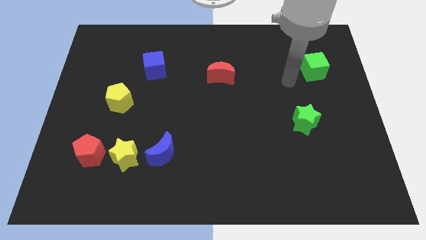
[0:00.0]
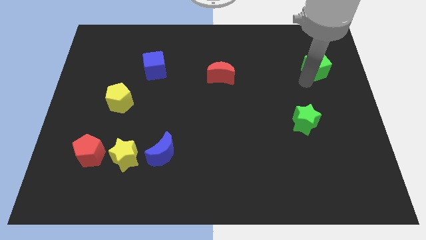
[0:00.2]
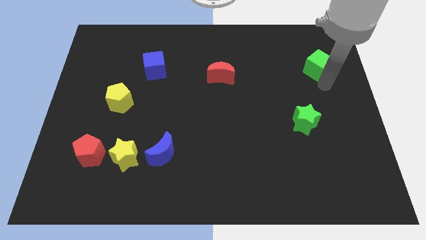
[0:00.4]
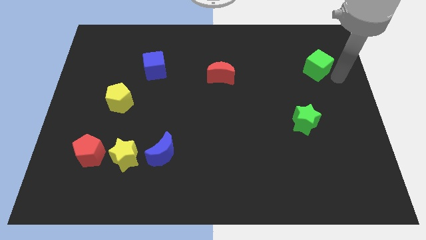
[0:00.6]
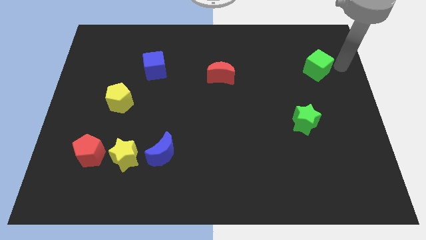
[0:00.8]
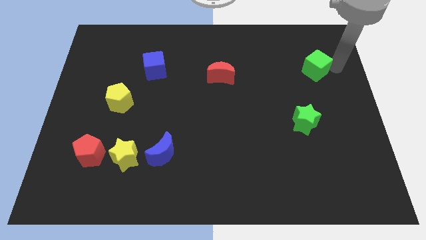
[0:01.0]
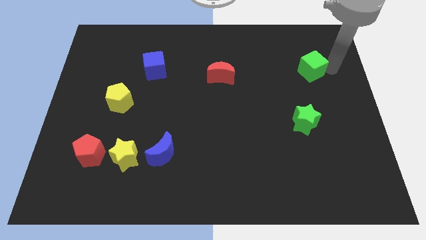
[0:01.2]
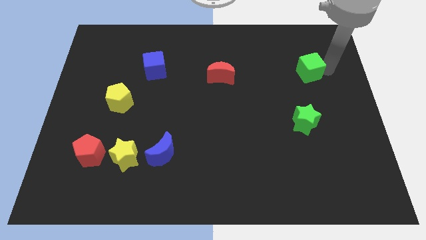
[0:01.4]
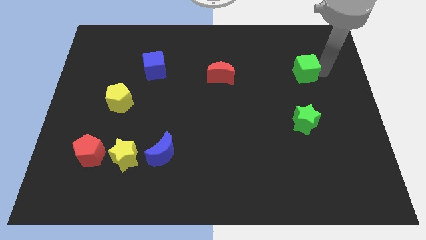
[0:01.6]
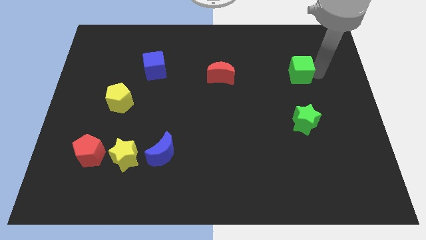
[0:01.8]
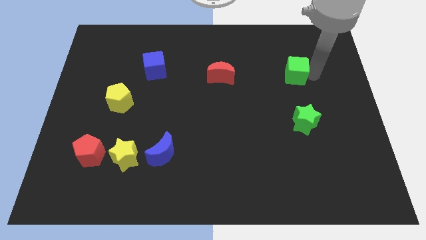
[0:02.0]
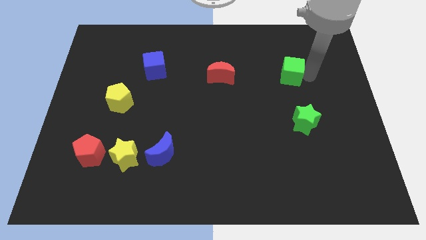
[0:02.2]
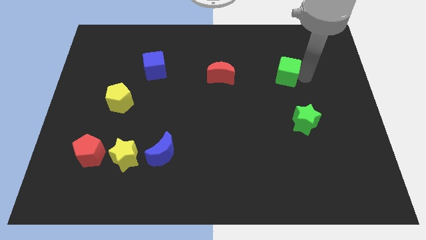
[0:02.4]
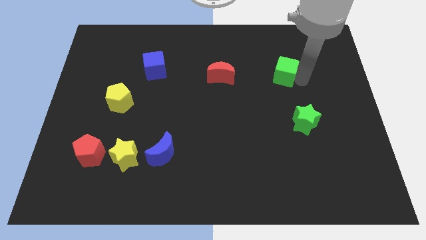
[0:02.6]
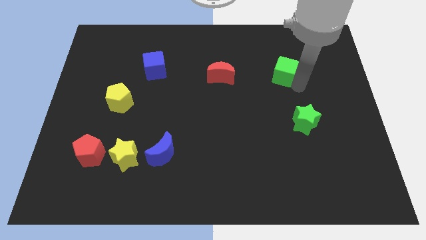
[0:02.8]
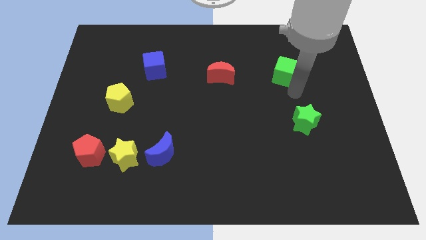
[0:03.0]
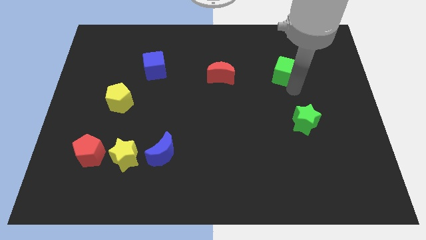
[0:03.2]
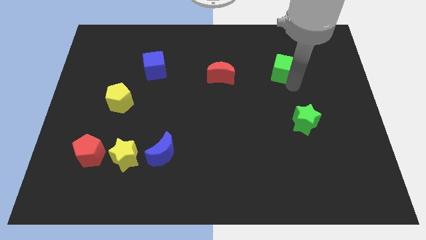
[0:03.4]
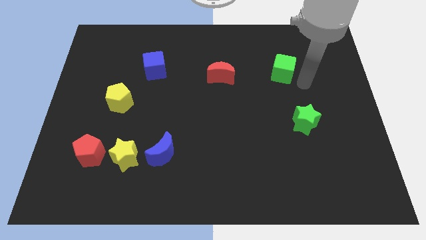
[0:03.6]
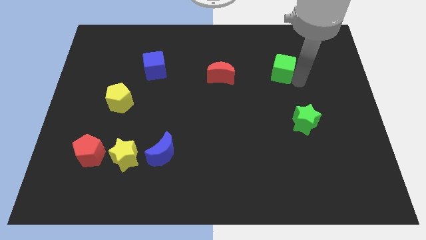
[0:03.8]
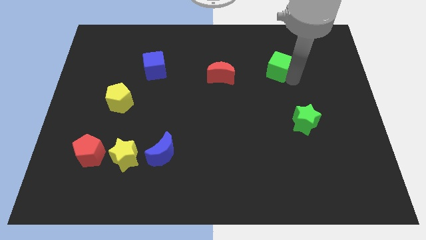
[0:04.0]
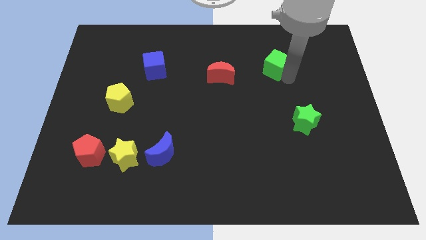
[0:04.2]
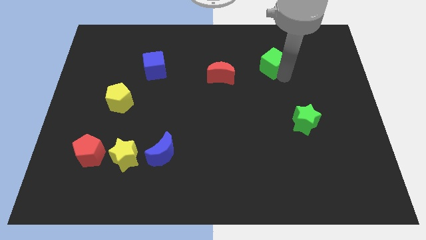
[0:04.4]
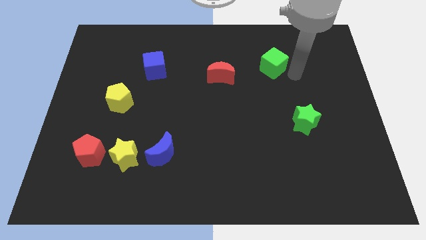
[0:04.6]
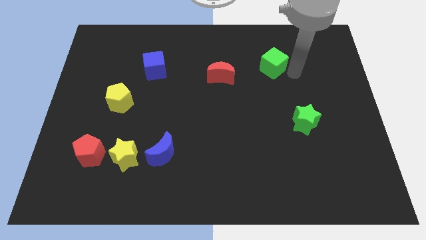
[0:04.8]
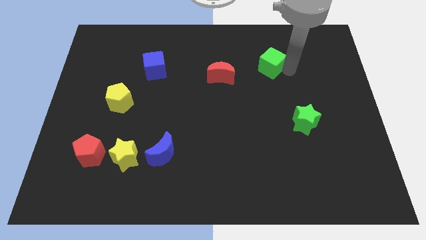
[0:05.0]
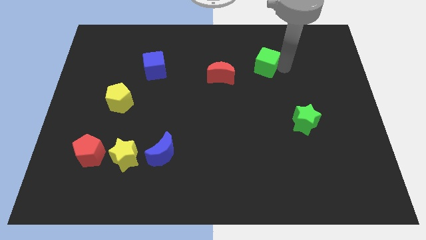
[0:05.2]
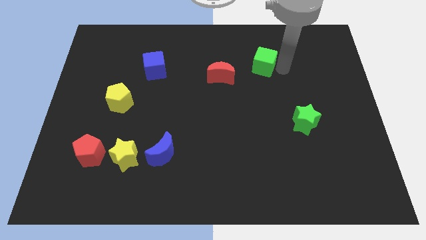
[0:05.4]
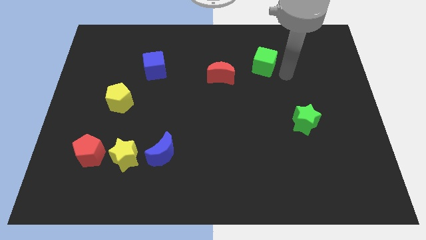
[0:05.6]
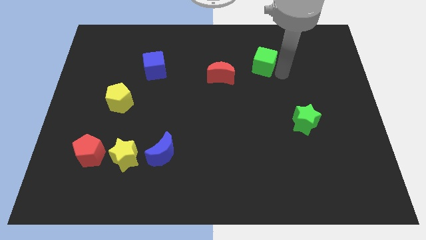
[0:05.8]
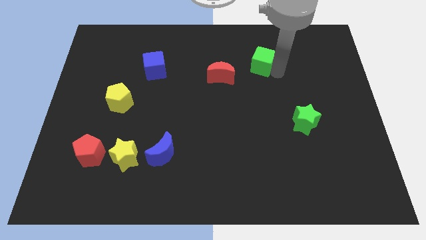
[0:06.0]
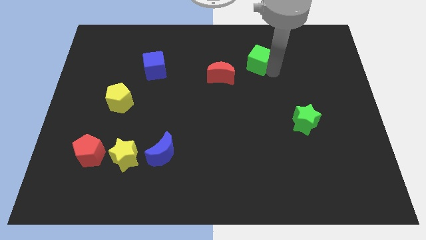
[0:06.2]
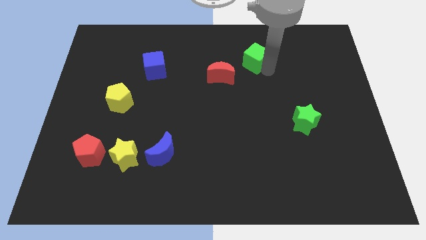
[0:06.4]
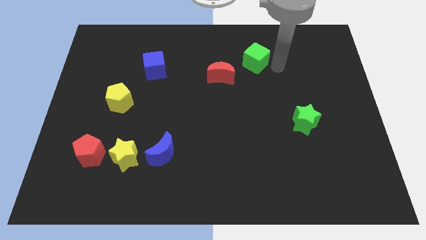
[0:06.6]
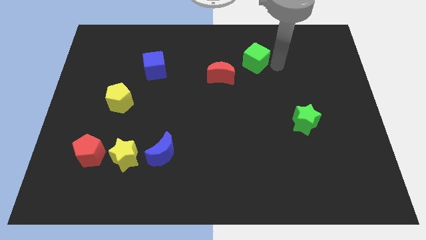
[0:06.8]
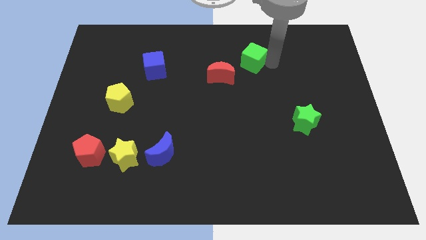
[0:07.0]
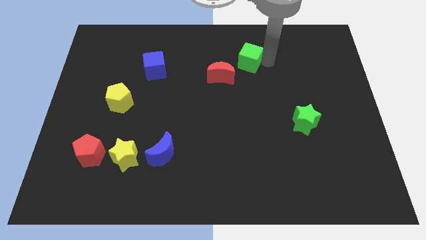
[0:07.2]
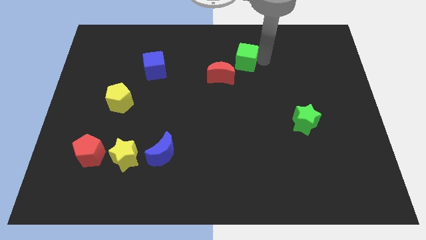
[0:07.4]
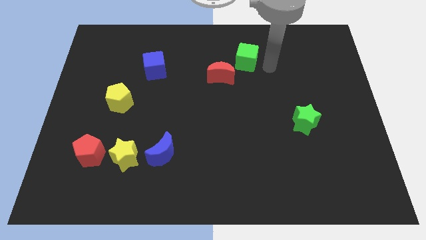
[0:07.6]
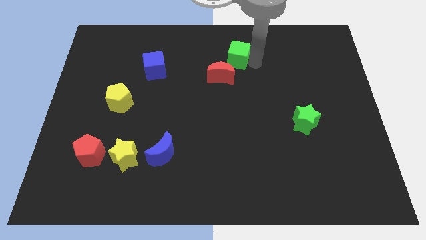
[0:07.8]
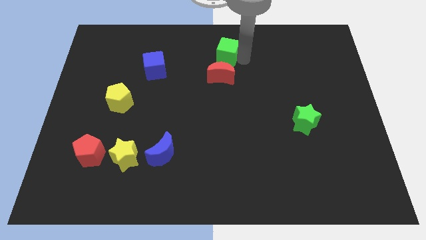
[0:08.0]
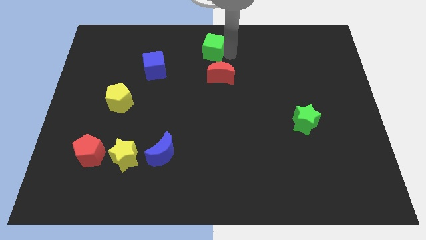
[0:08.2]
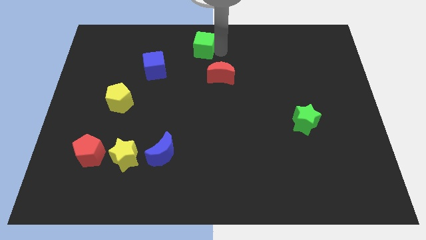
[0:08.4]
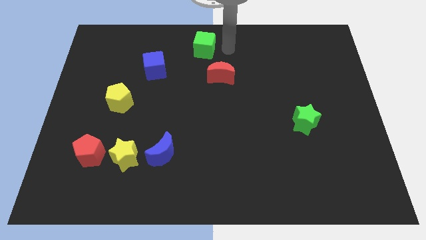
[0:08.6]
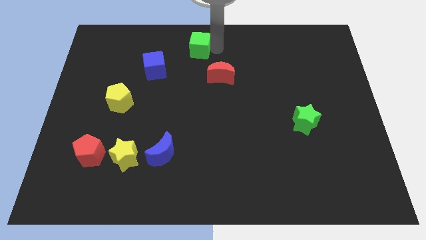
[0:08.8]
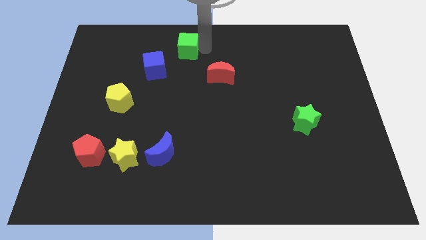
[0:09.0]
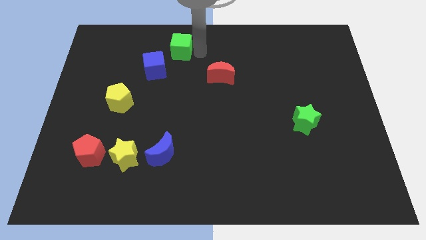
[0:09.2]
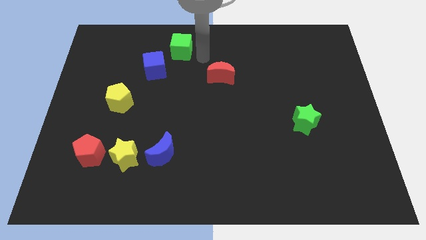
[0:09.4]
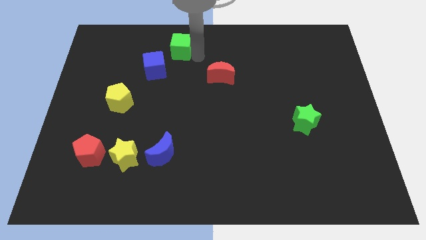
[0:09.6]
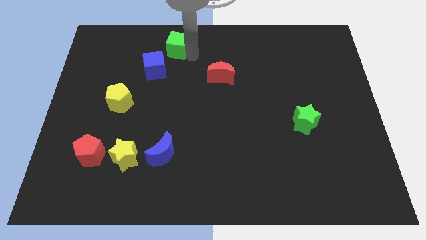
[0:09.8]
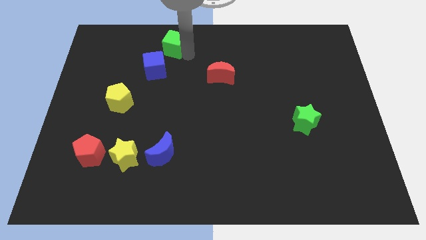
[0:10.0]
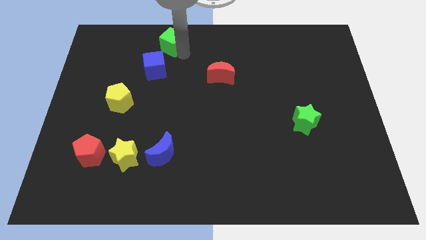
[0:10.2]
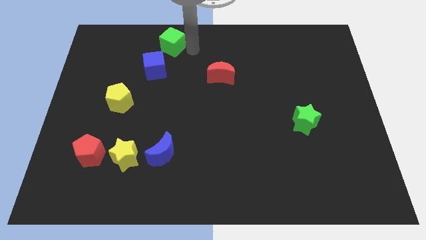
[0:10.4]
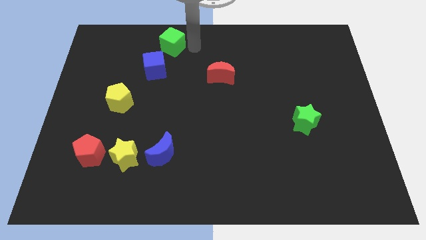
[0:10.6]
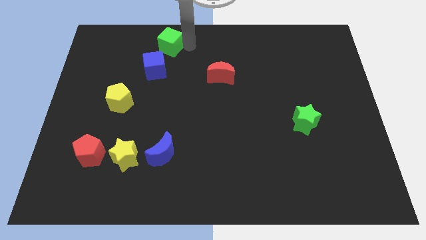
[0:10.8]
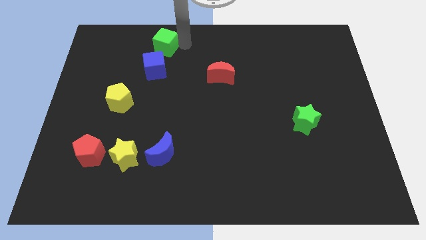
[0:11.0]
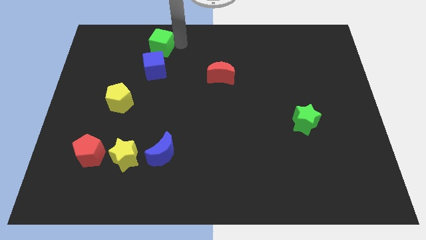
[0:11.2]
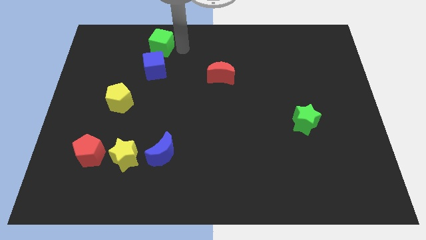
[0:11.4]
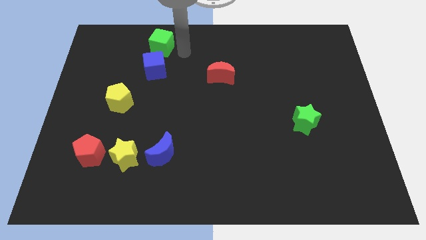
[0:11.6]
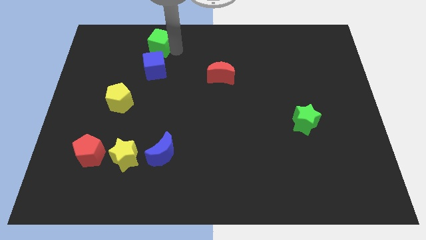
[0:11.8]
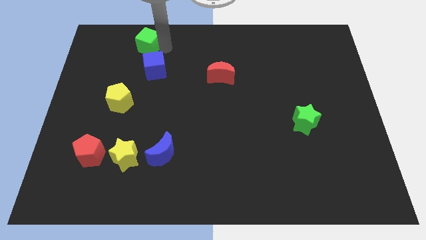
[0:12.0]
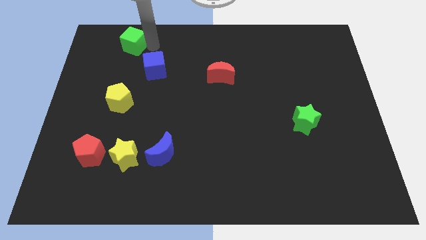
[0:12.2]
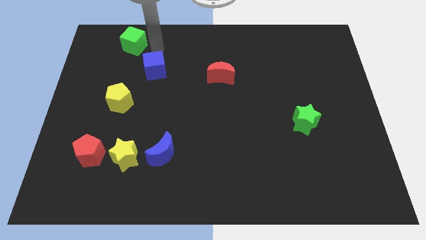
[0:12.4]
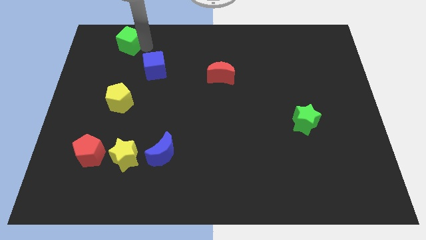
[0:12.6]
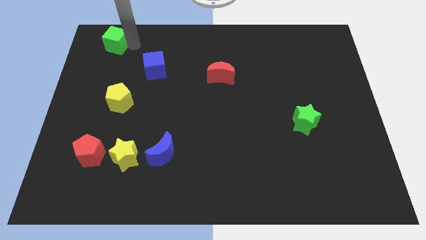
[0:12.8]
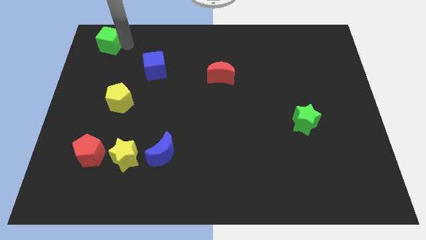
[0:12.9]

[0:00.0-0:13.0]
move the green cube to the top left
